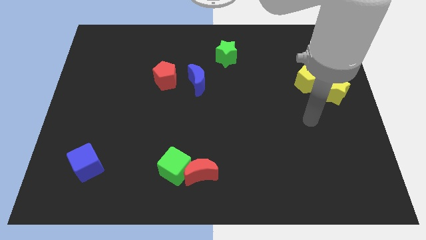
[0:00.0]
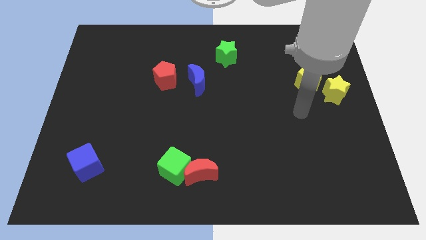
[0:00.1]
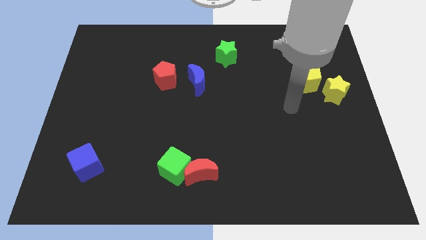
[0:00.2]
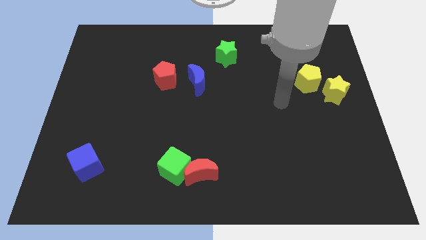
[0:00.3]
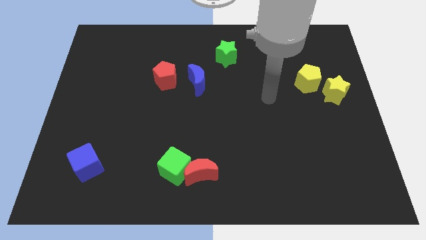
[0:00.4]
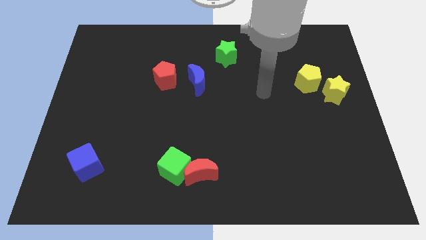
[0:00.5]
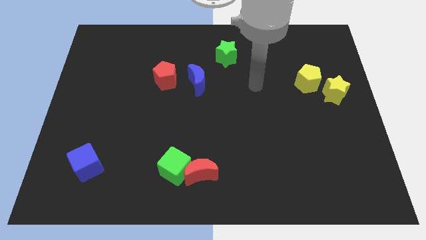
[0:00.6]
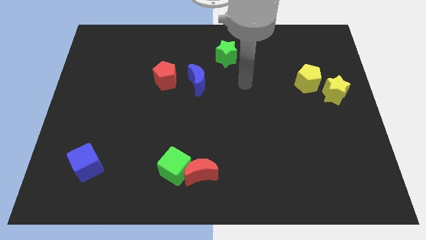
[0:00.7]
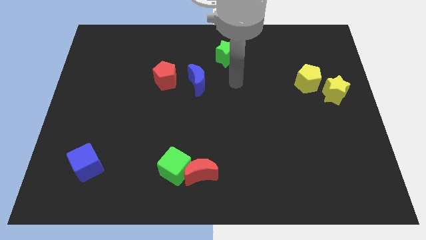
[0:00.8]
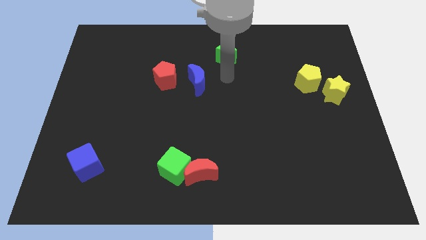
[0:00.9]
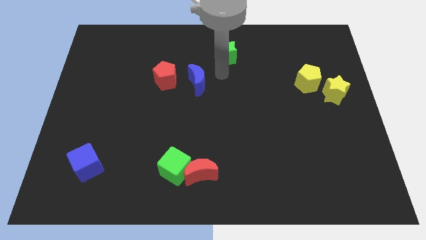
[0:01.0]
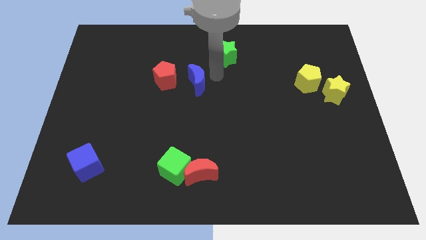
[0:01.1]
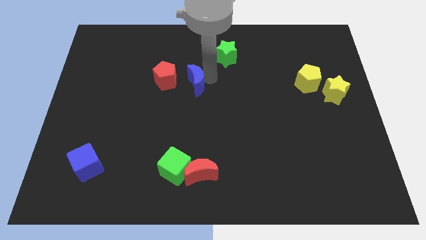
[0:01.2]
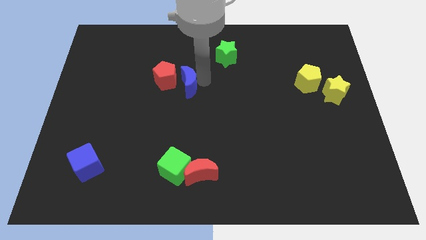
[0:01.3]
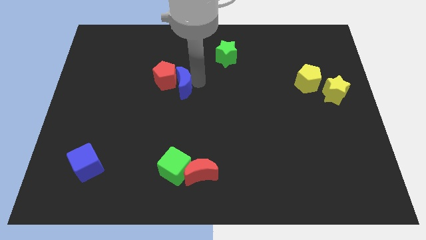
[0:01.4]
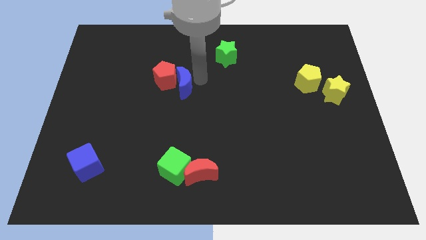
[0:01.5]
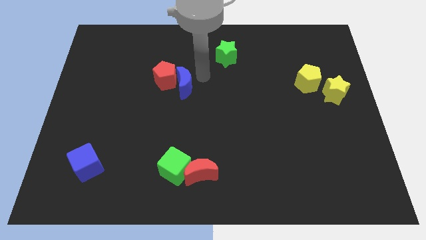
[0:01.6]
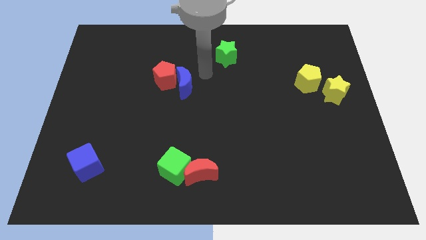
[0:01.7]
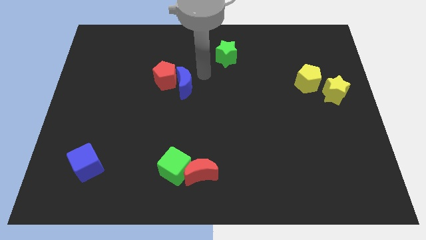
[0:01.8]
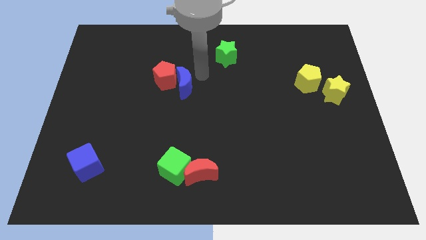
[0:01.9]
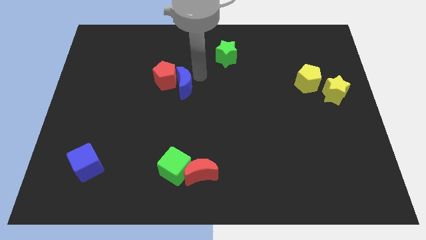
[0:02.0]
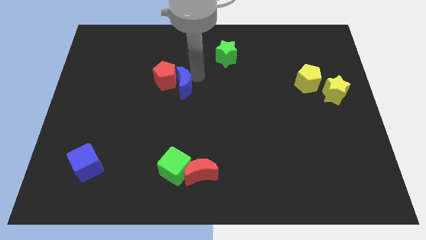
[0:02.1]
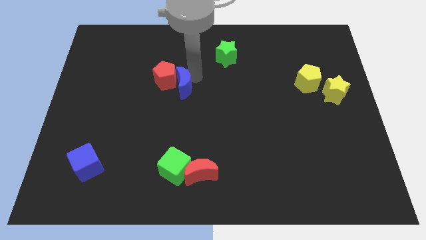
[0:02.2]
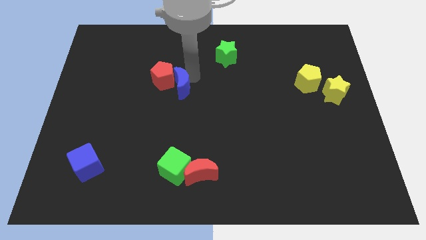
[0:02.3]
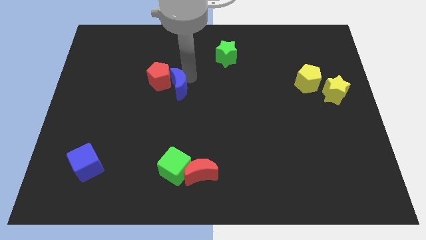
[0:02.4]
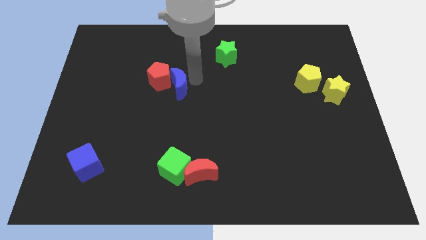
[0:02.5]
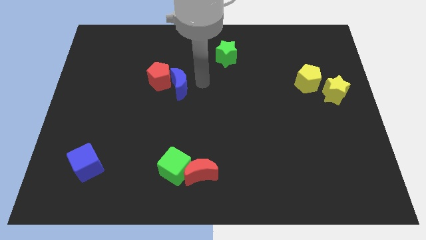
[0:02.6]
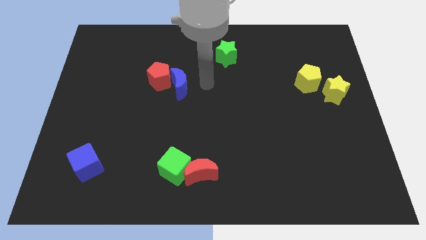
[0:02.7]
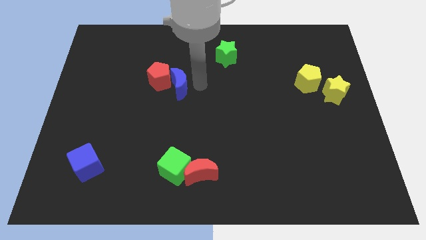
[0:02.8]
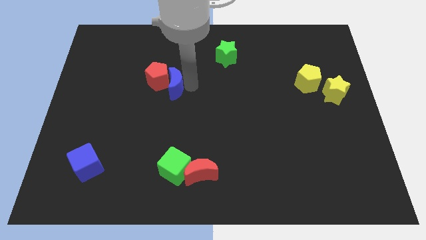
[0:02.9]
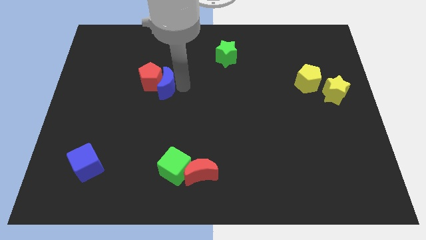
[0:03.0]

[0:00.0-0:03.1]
slide the blue moon somewhat to the left

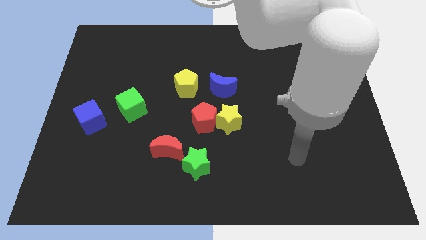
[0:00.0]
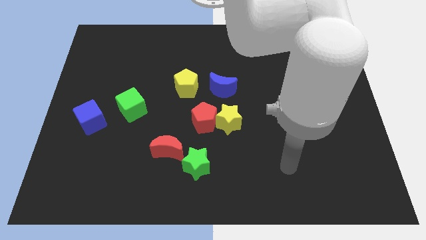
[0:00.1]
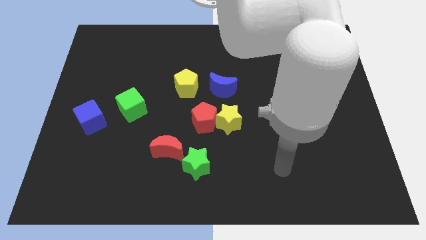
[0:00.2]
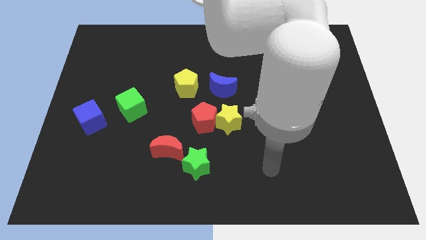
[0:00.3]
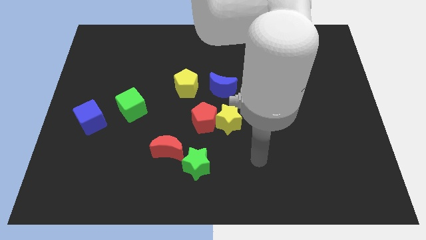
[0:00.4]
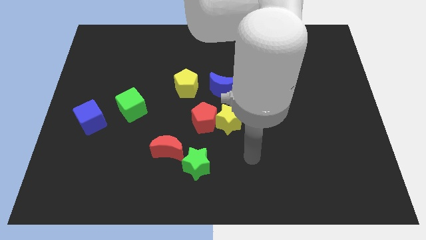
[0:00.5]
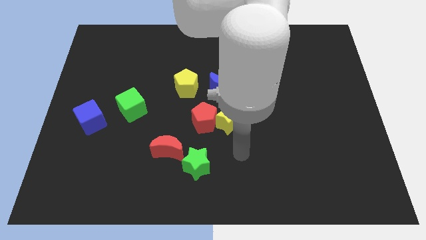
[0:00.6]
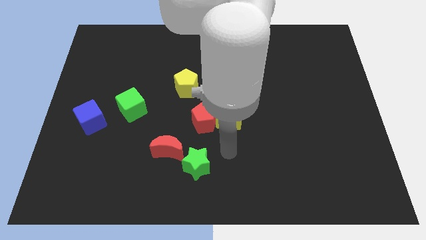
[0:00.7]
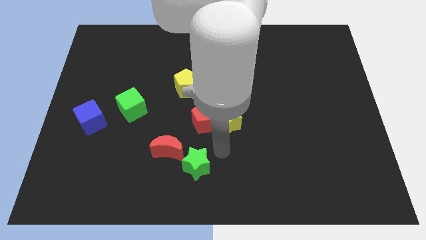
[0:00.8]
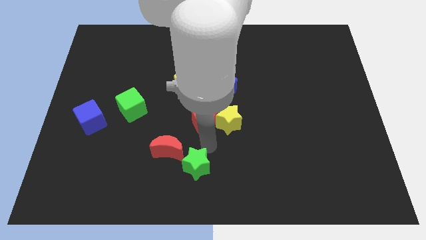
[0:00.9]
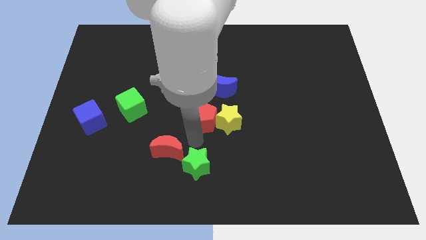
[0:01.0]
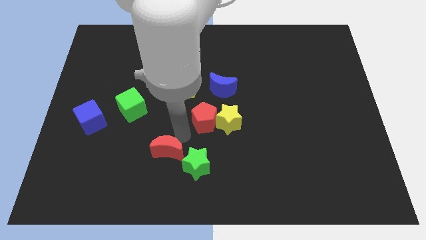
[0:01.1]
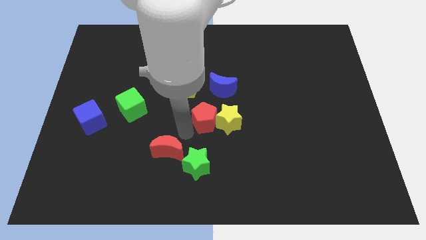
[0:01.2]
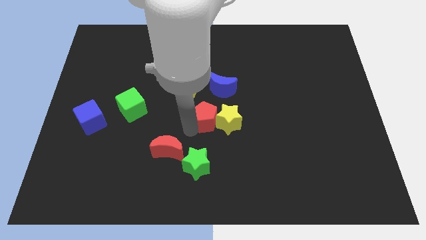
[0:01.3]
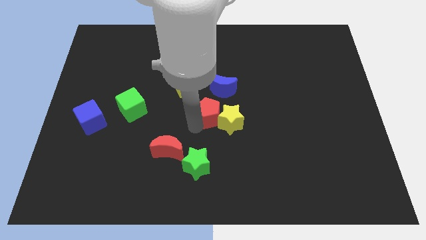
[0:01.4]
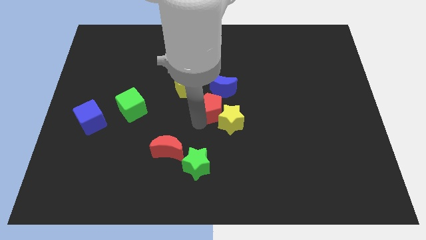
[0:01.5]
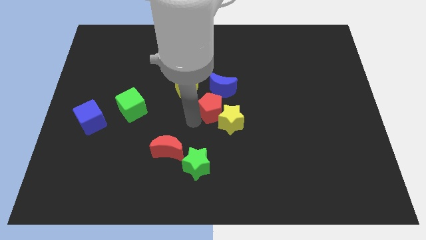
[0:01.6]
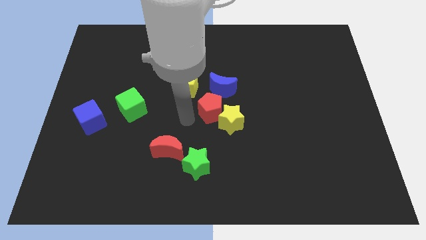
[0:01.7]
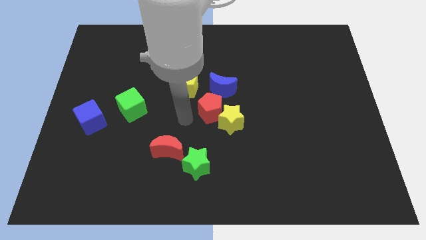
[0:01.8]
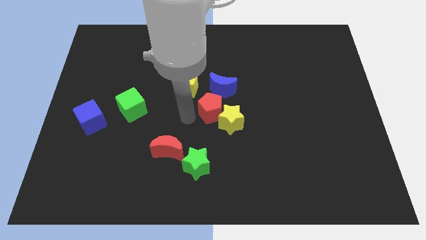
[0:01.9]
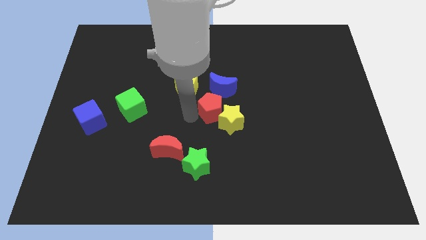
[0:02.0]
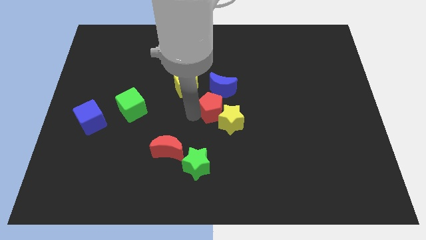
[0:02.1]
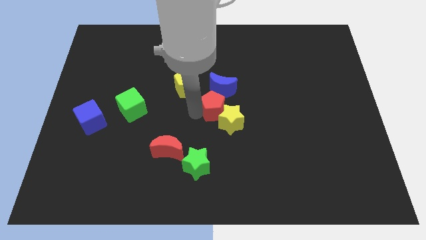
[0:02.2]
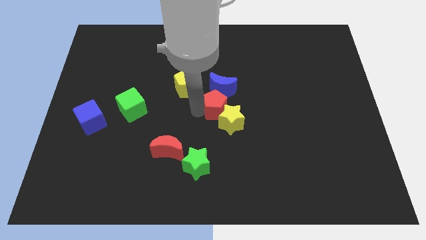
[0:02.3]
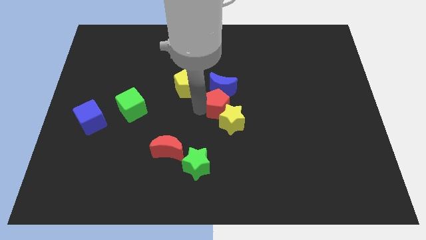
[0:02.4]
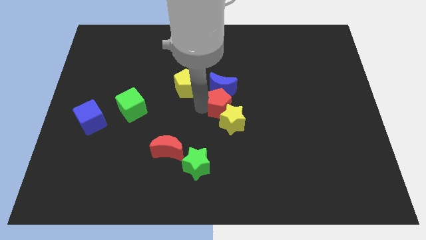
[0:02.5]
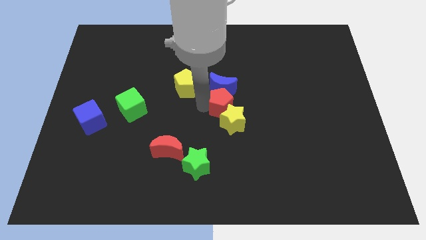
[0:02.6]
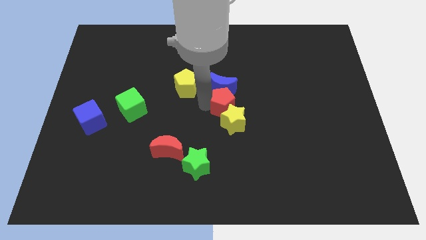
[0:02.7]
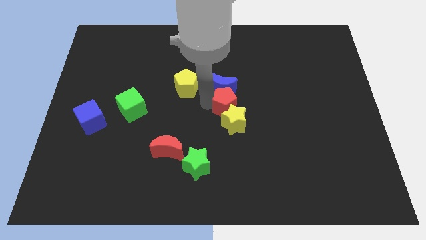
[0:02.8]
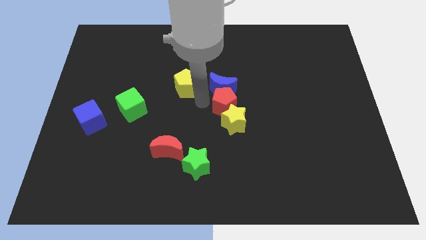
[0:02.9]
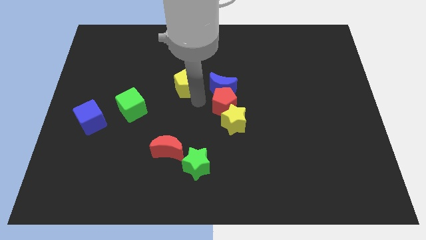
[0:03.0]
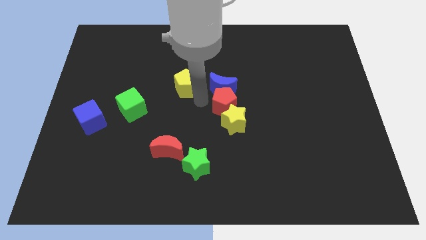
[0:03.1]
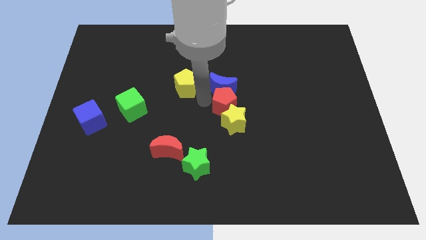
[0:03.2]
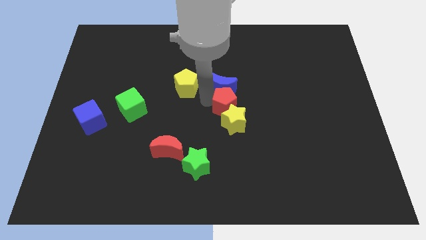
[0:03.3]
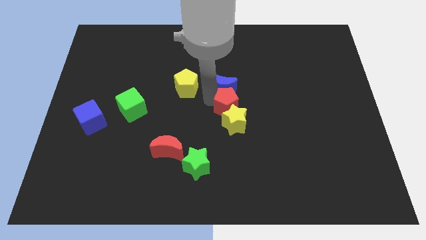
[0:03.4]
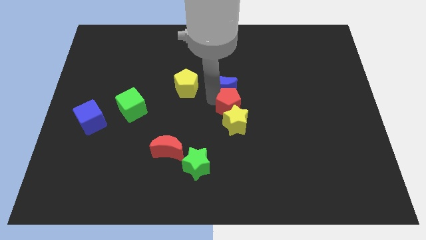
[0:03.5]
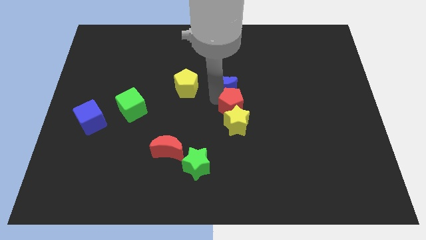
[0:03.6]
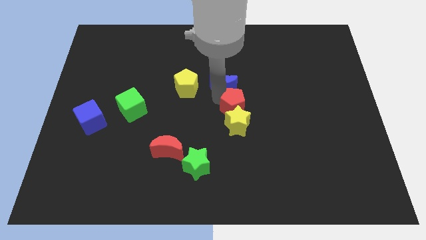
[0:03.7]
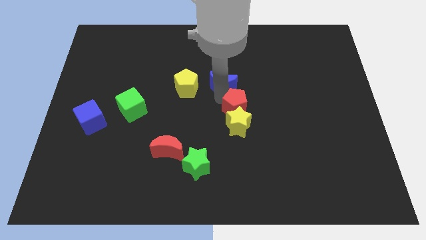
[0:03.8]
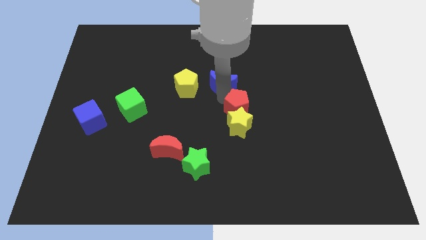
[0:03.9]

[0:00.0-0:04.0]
push the red pentagon slightly to the right

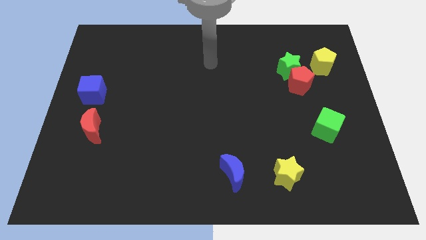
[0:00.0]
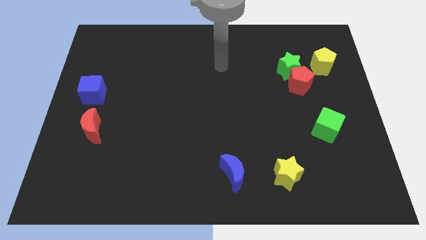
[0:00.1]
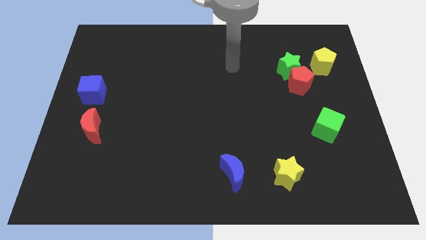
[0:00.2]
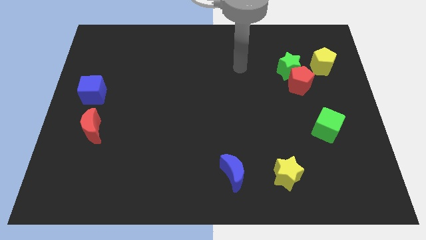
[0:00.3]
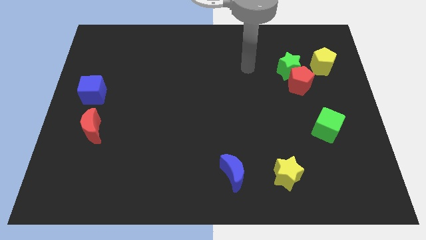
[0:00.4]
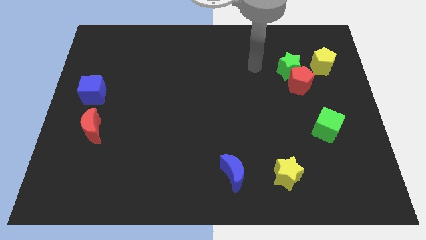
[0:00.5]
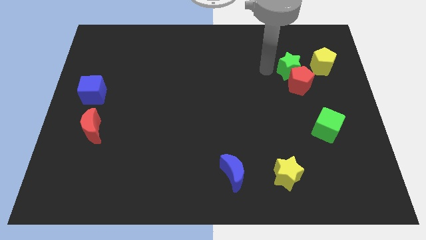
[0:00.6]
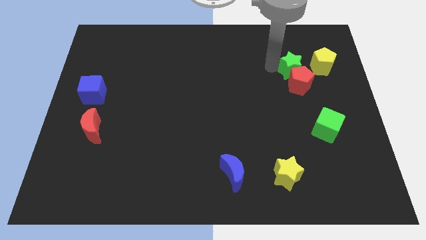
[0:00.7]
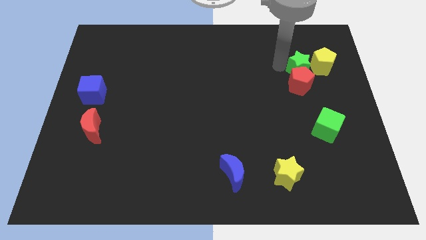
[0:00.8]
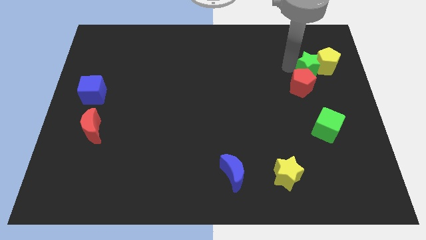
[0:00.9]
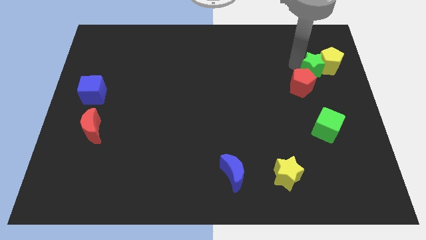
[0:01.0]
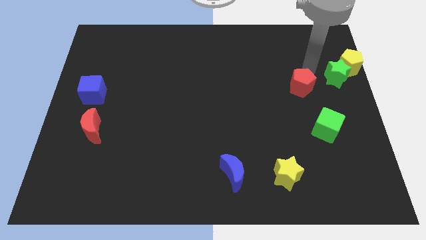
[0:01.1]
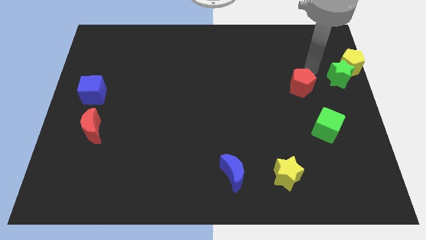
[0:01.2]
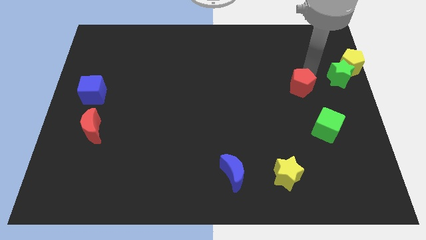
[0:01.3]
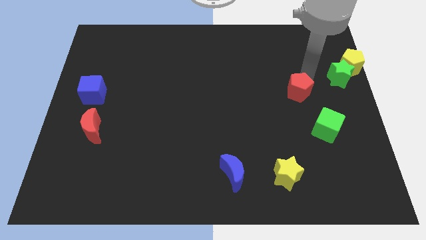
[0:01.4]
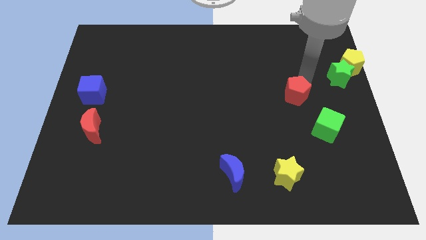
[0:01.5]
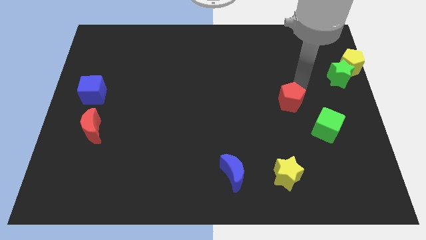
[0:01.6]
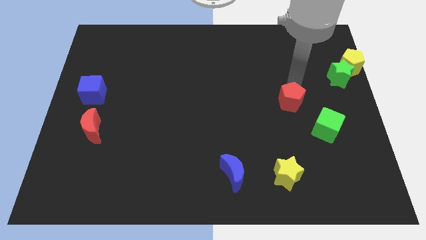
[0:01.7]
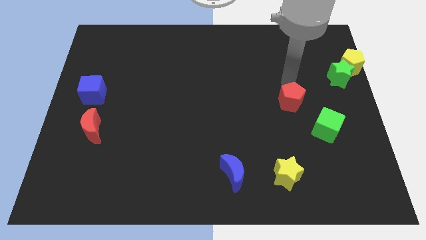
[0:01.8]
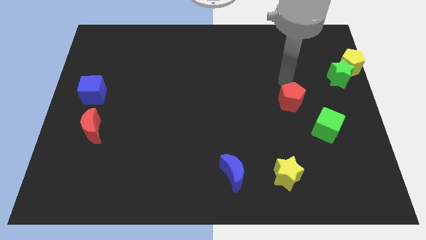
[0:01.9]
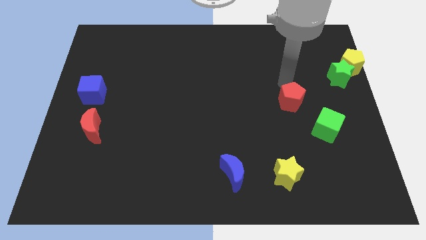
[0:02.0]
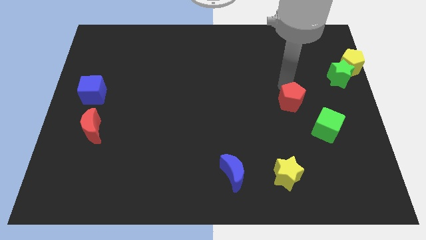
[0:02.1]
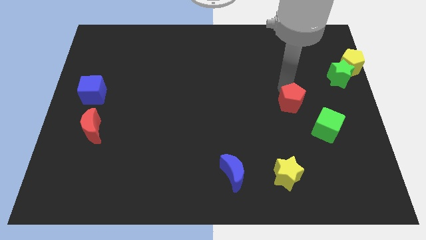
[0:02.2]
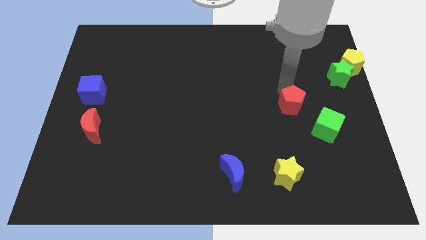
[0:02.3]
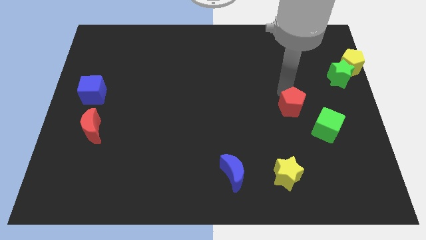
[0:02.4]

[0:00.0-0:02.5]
push the red pentagon down a bit
